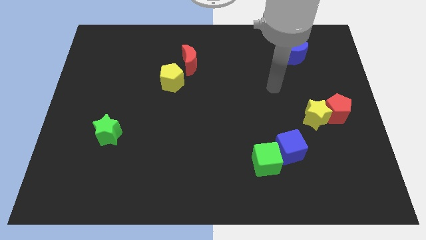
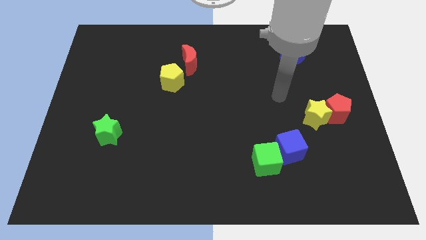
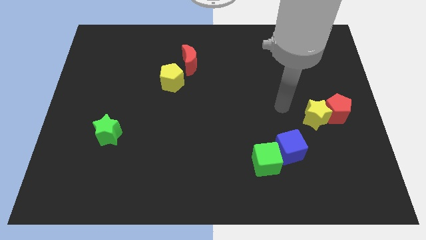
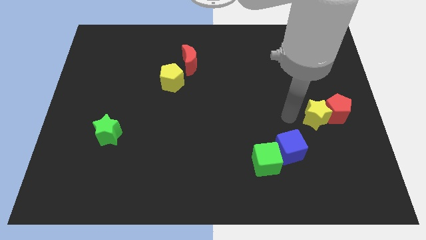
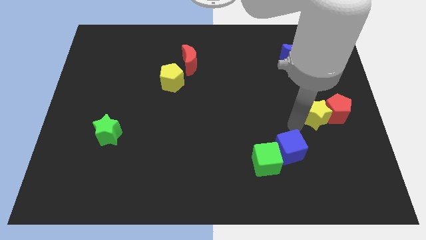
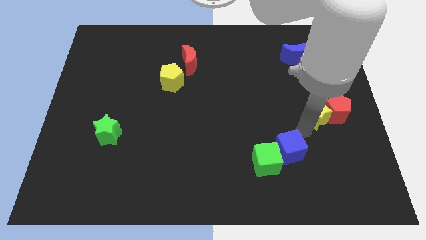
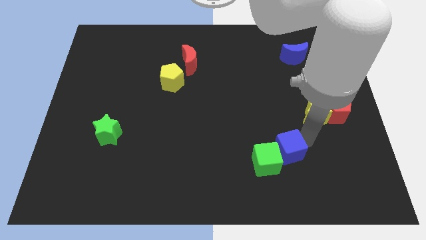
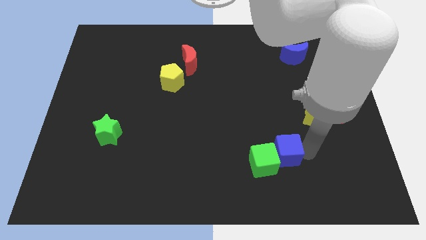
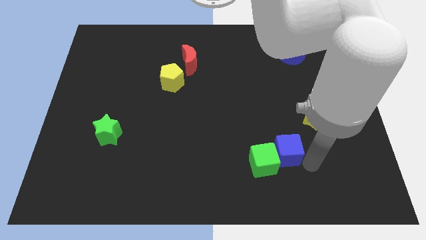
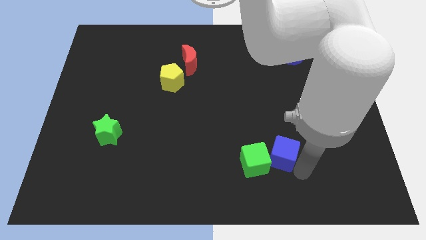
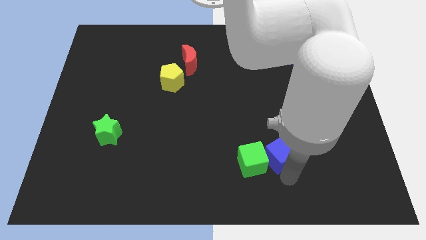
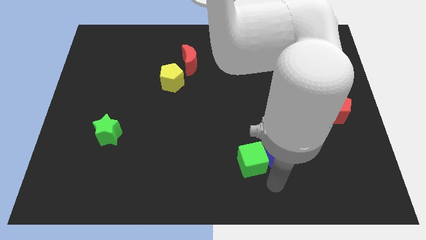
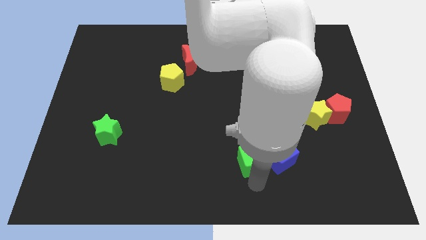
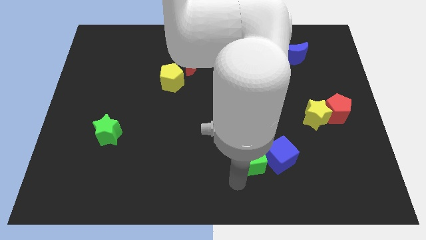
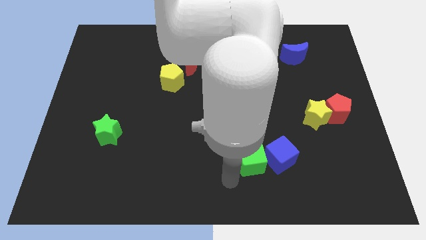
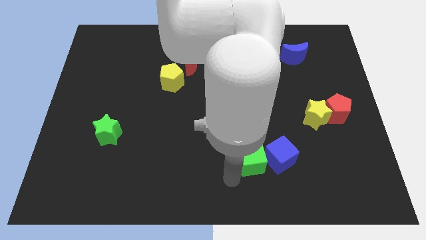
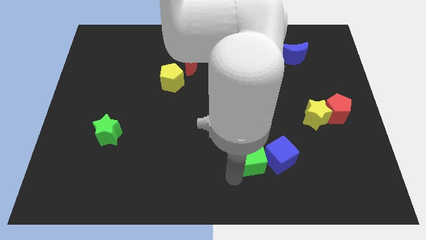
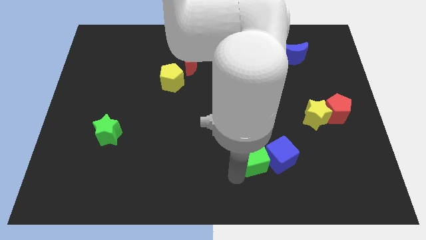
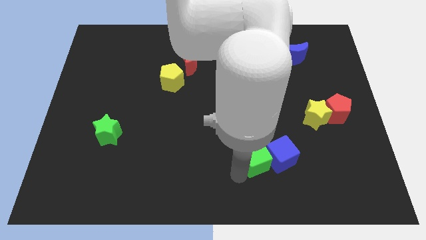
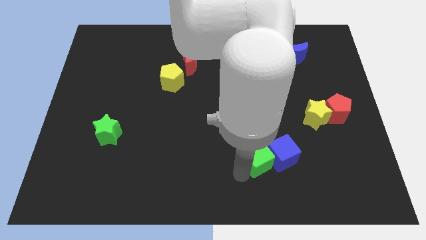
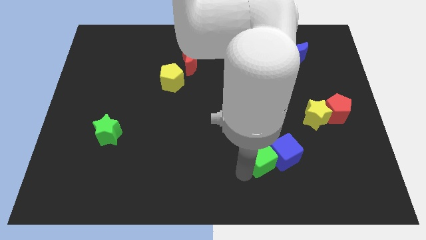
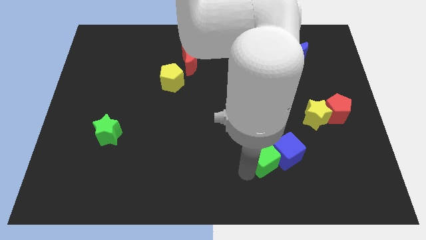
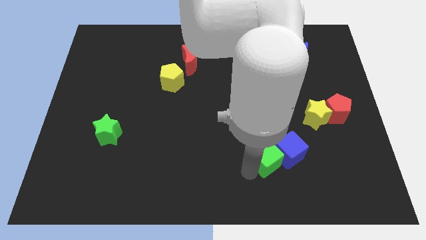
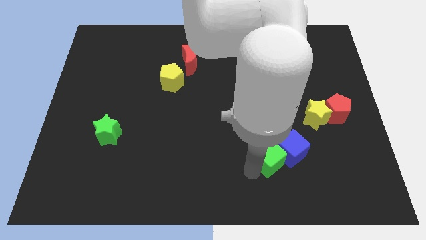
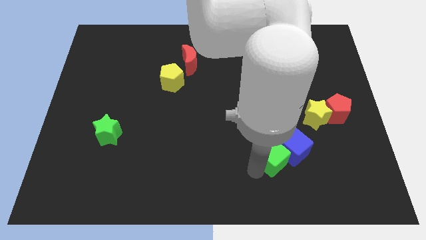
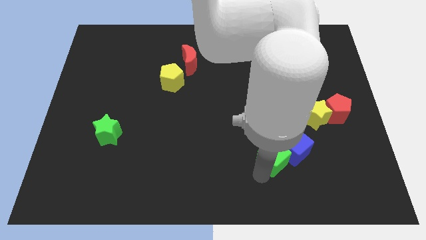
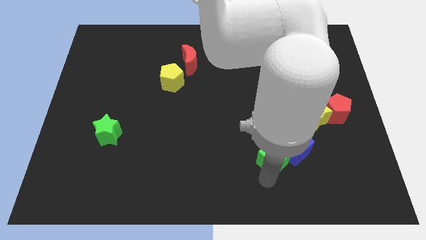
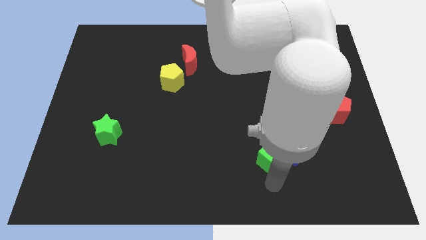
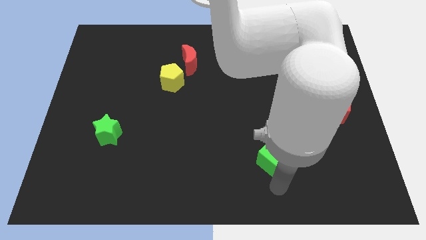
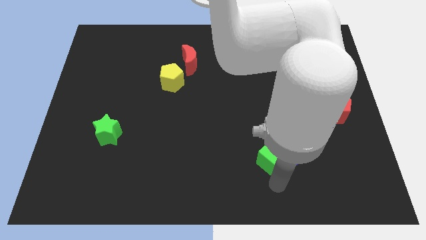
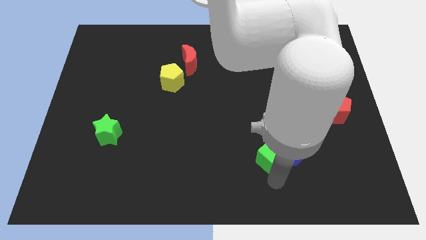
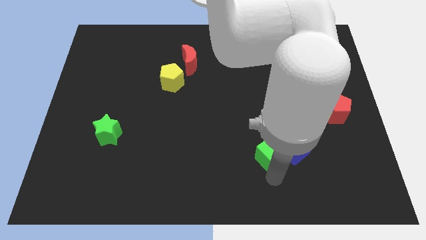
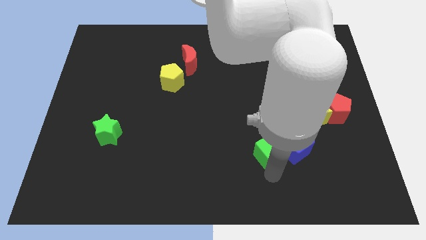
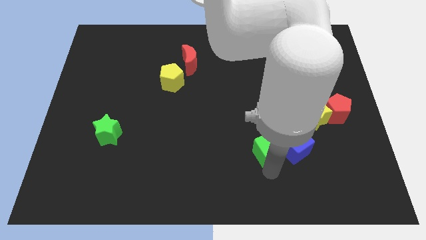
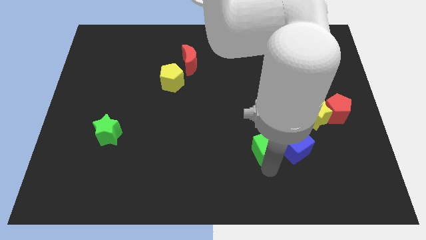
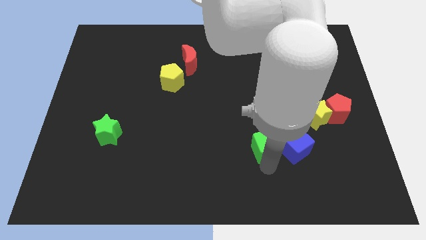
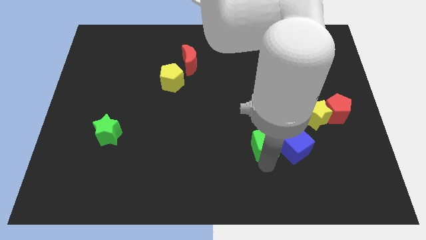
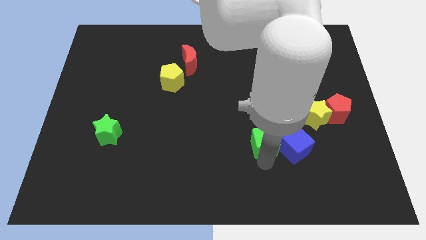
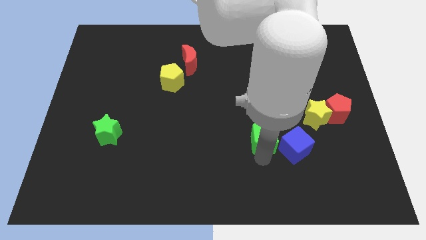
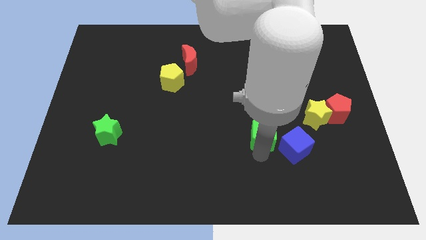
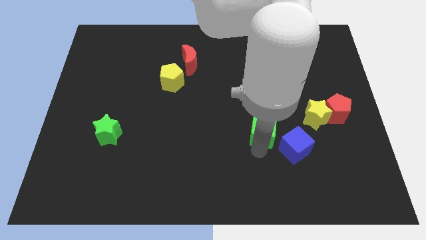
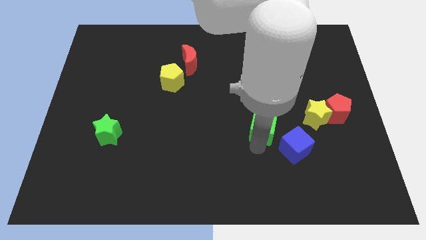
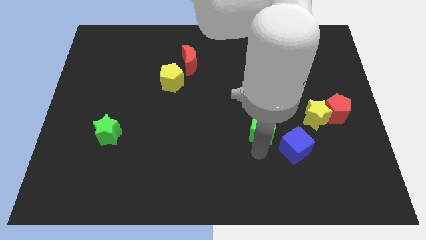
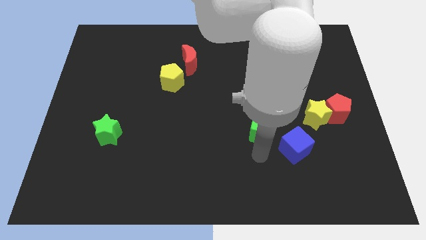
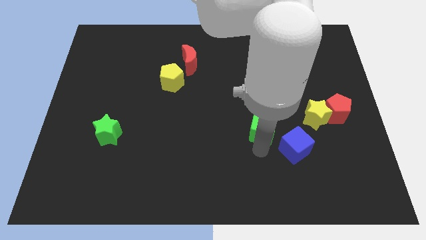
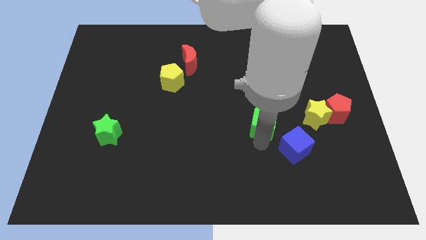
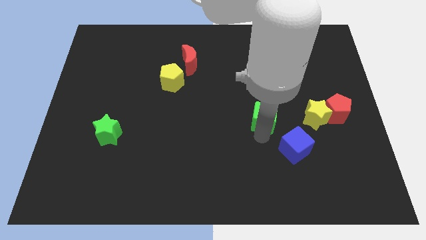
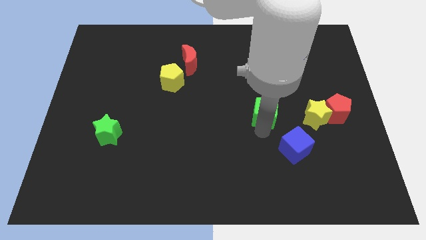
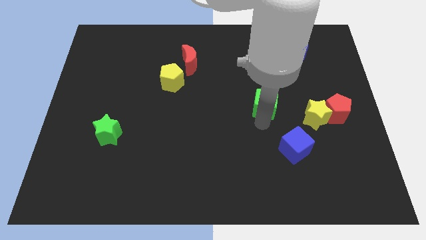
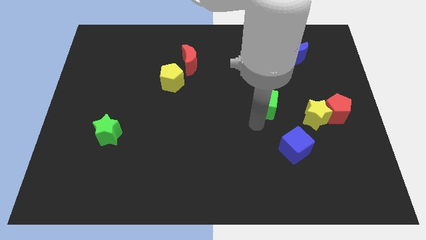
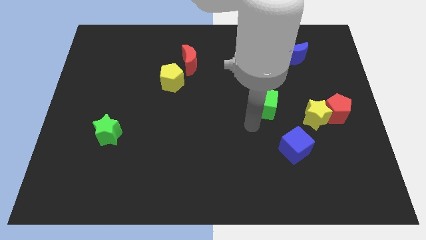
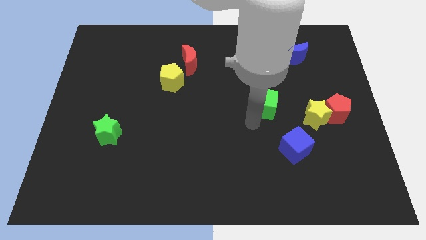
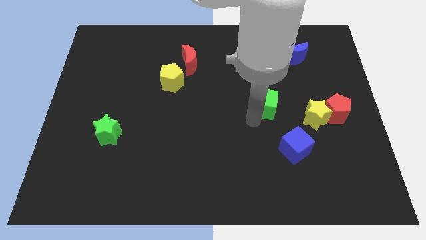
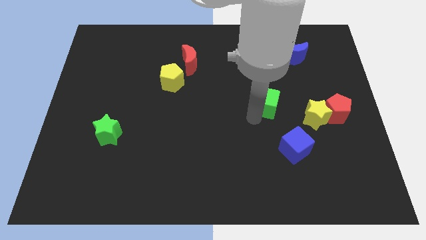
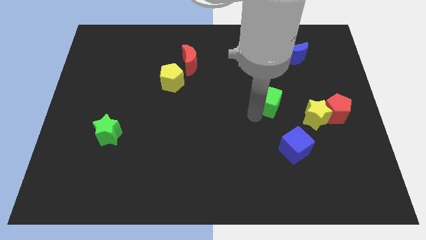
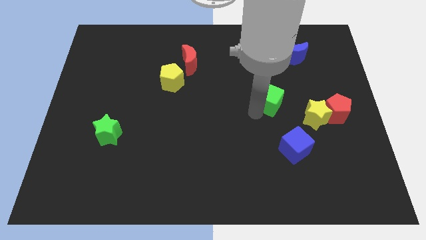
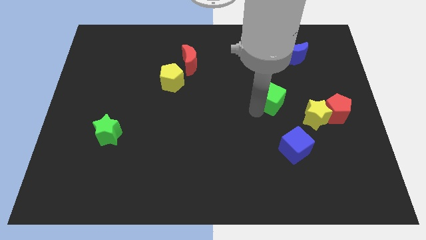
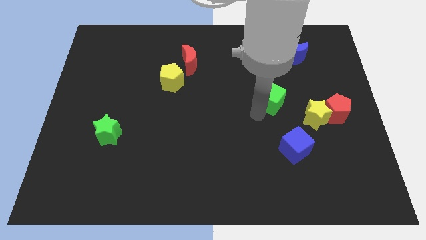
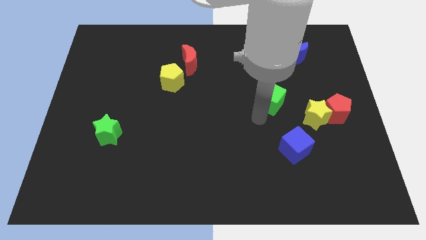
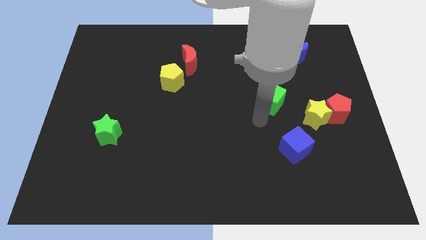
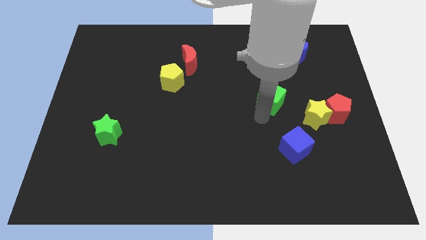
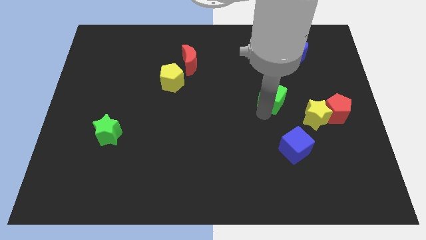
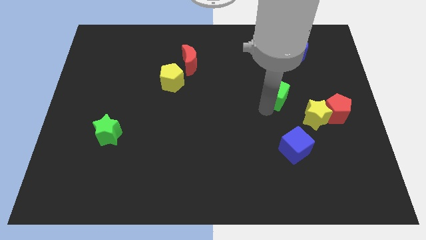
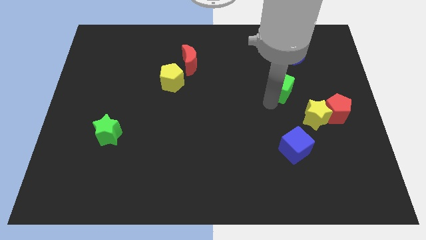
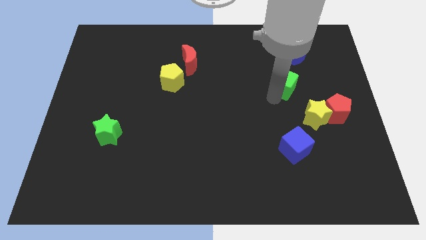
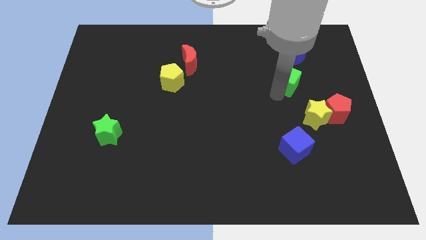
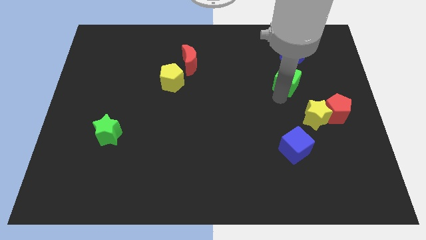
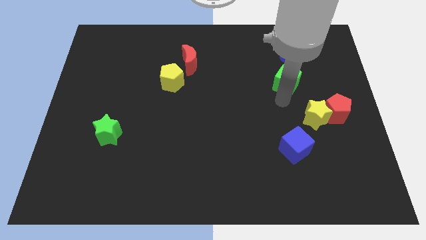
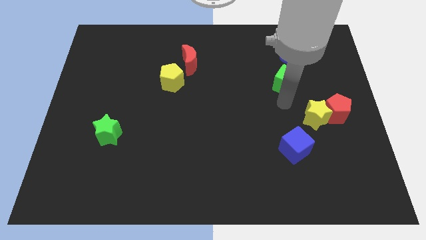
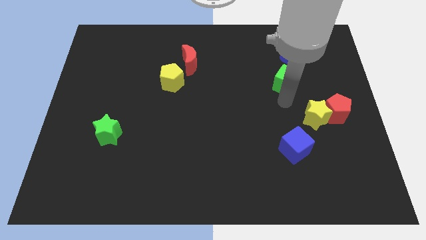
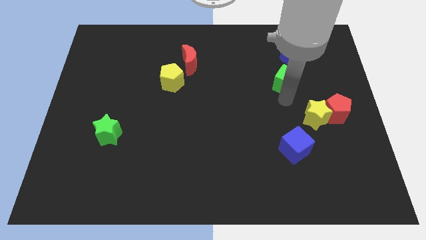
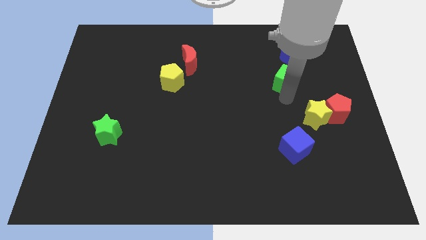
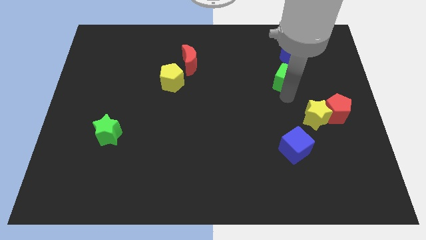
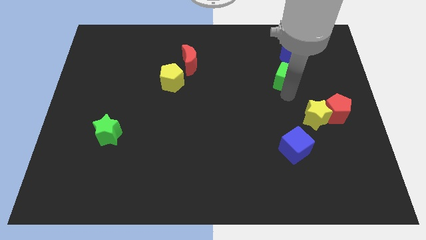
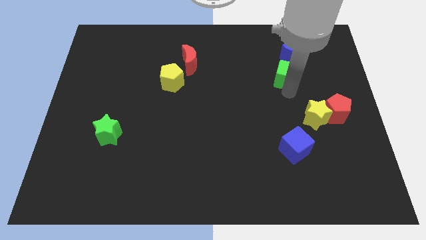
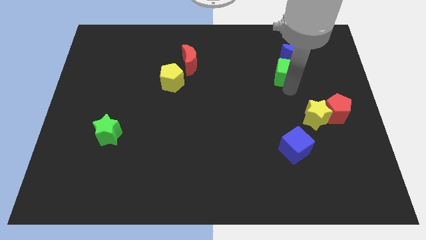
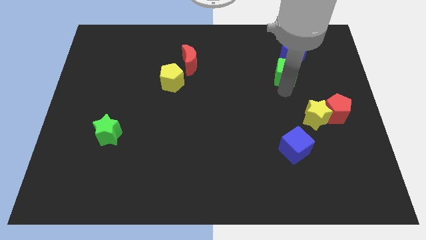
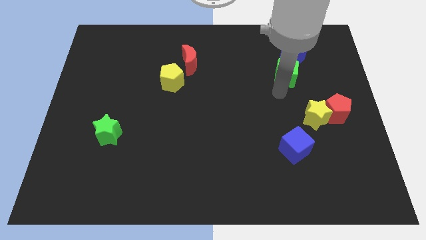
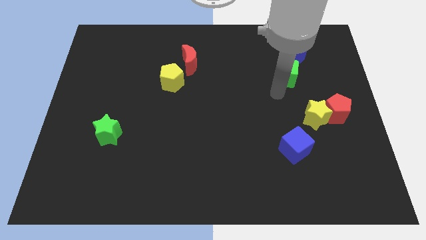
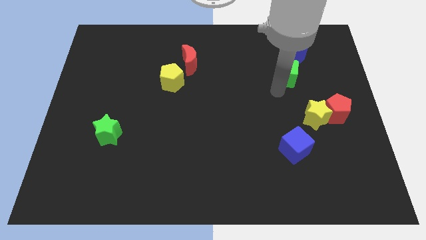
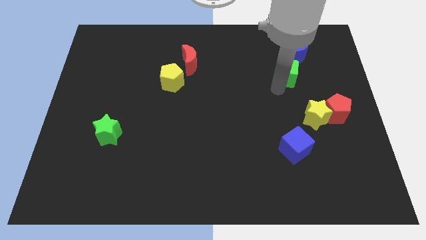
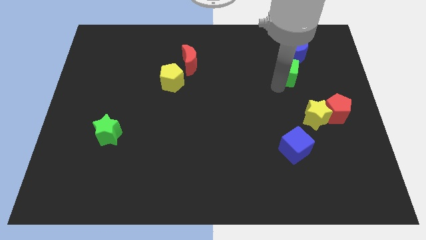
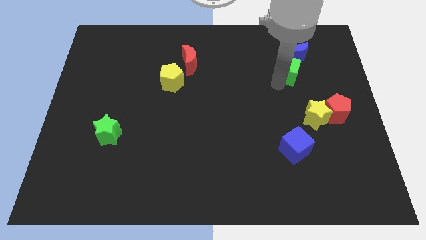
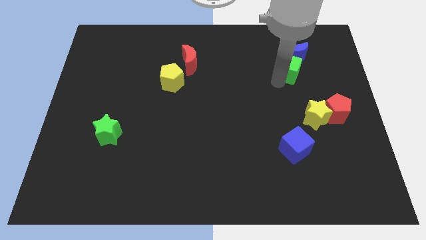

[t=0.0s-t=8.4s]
slide the green cube towards the blue moon
